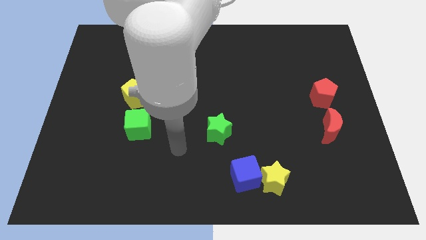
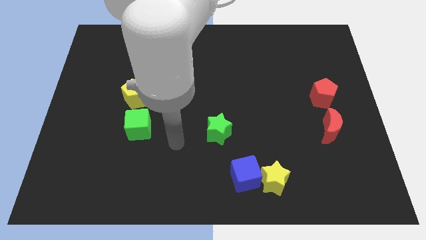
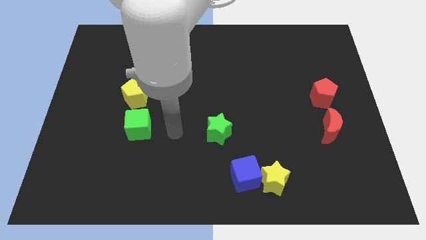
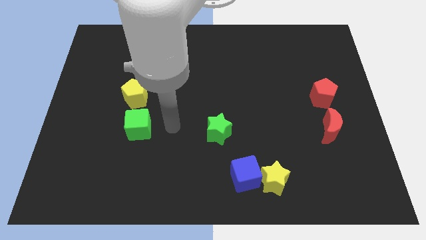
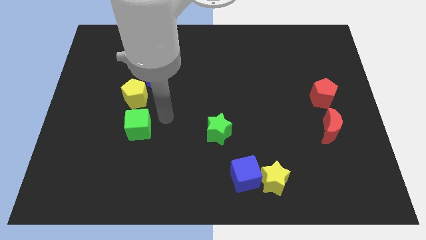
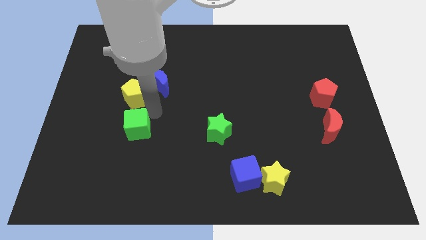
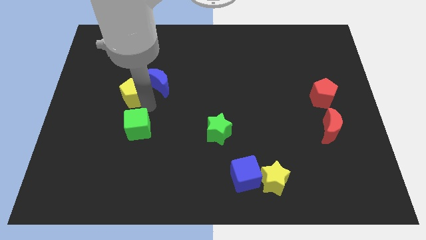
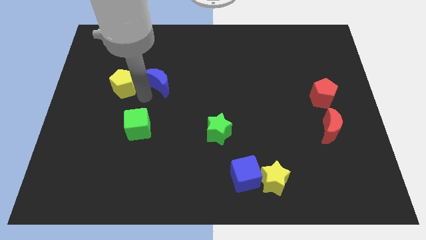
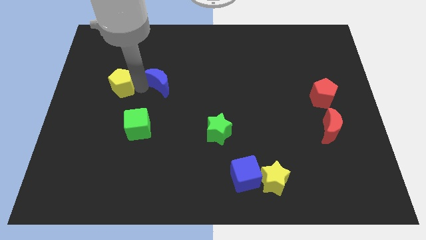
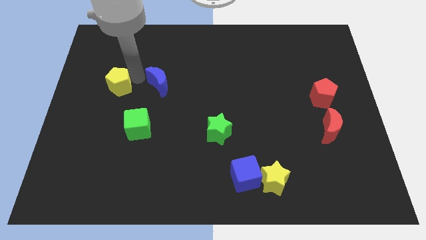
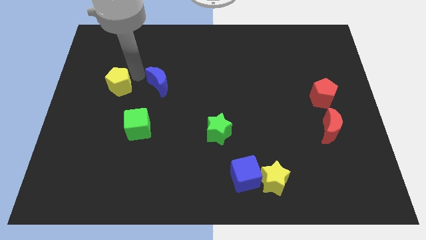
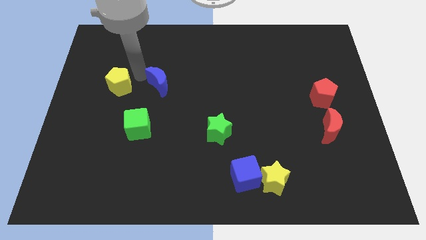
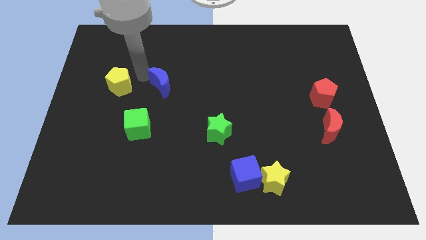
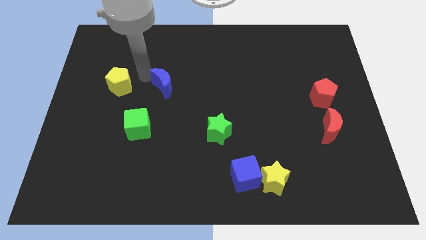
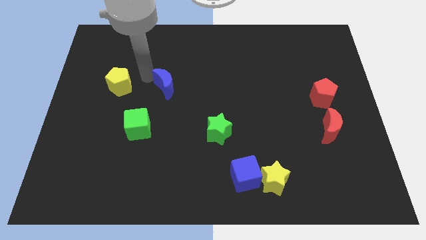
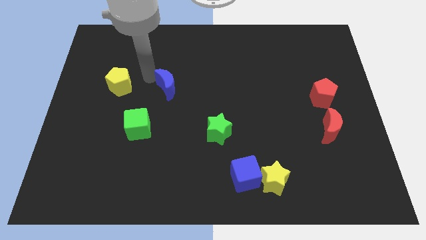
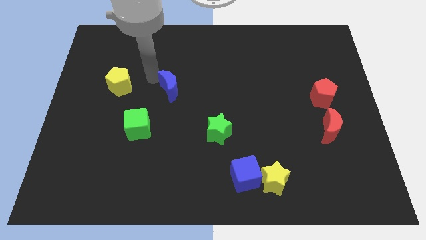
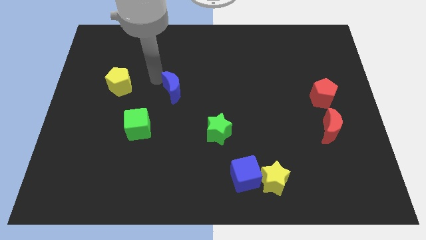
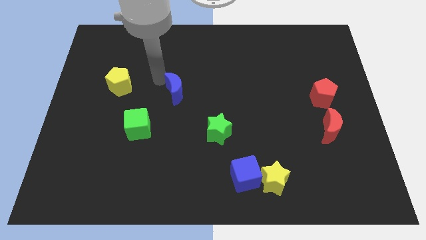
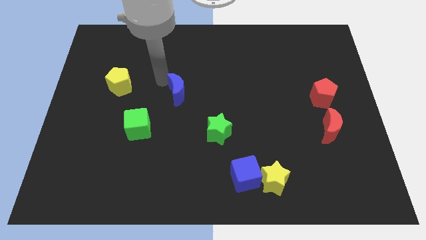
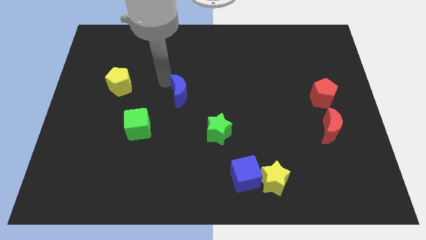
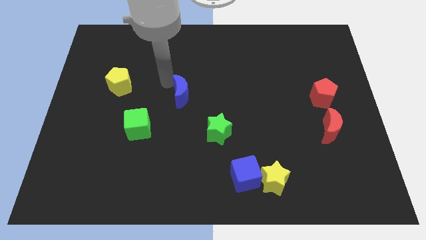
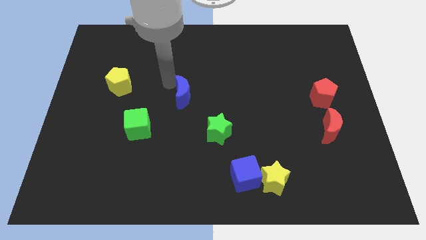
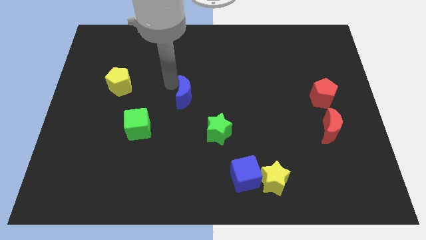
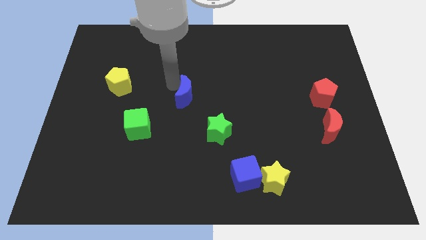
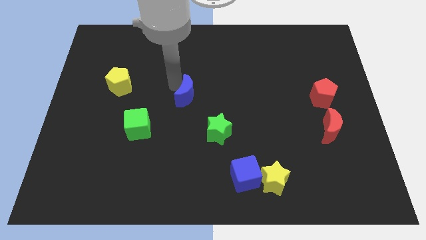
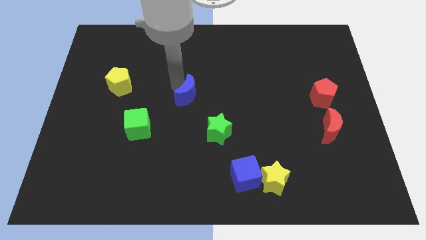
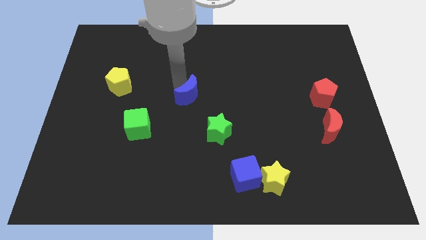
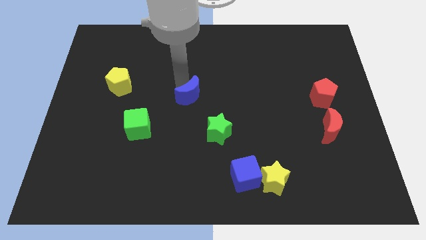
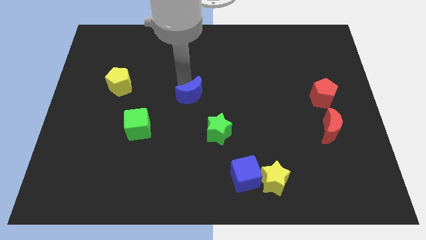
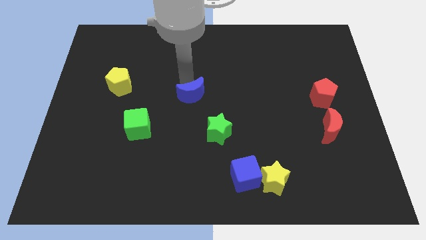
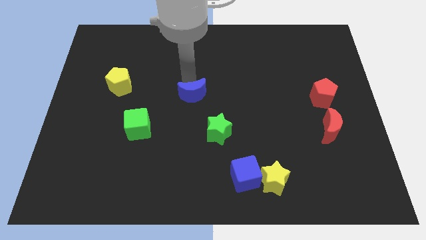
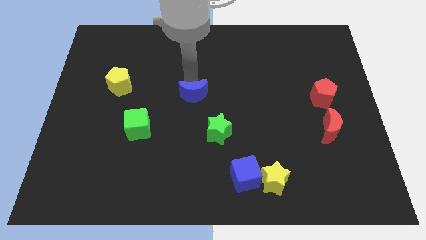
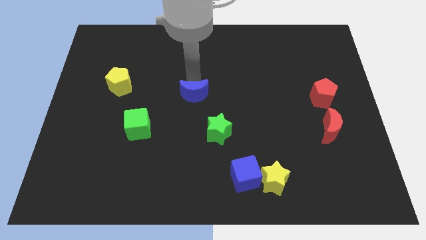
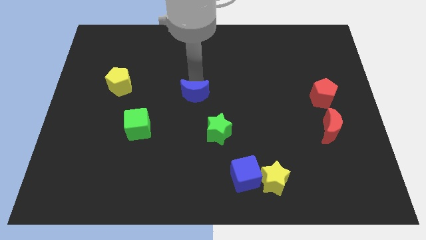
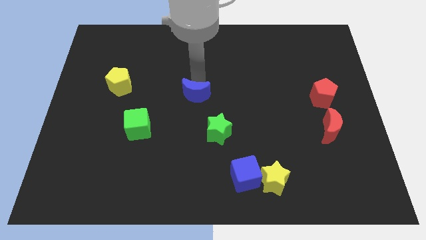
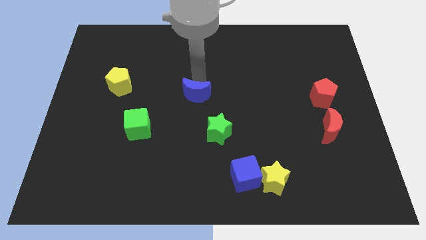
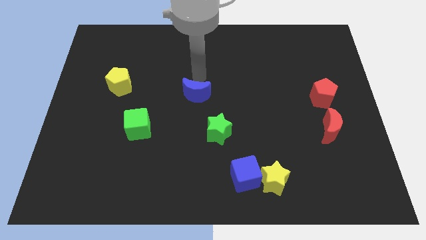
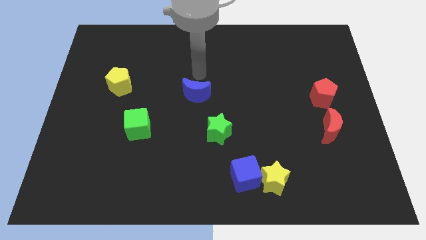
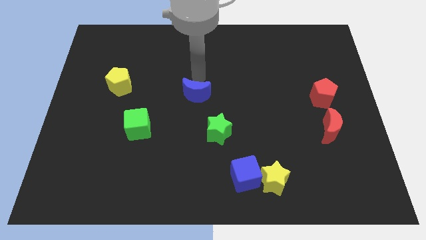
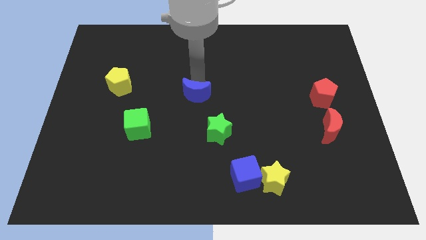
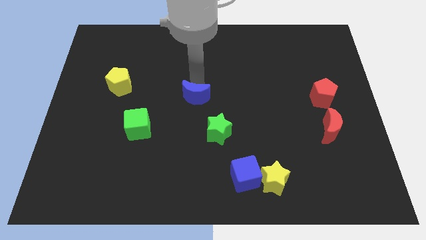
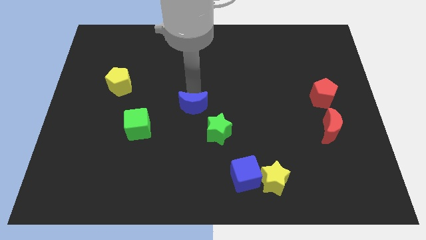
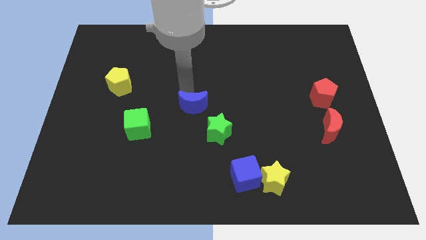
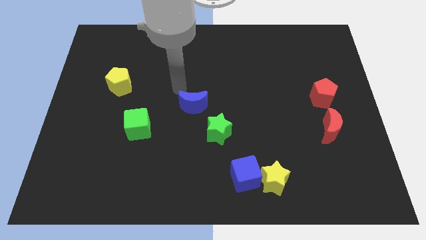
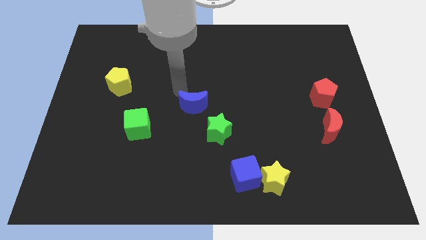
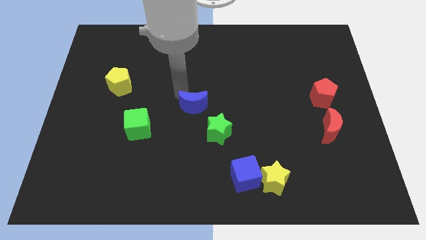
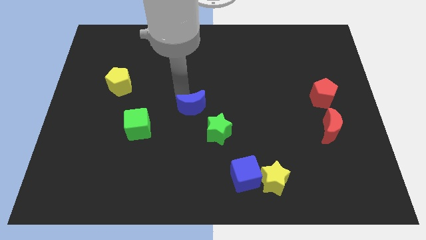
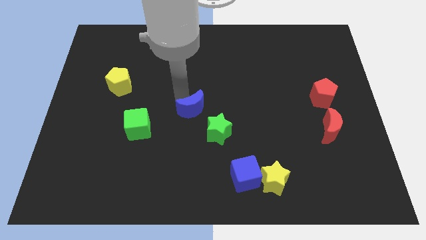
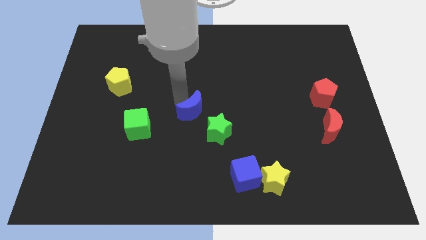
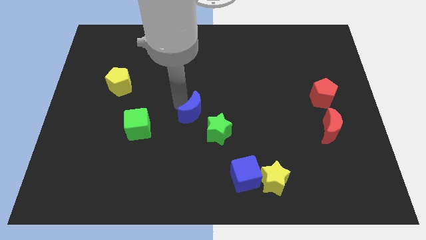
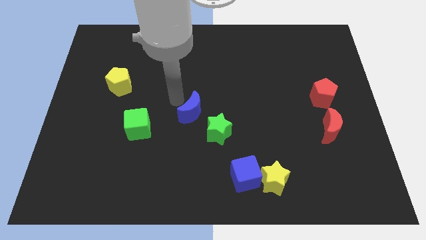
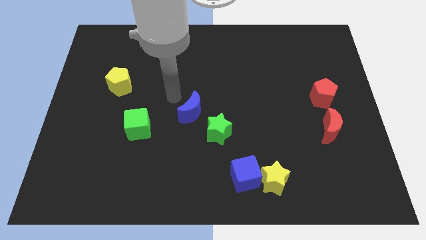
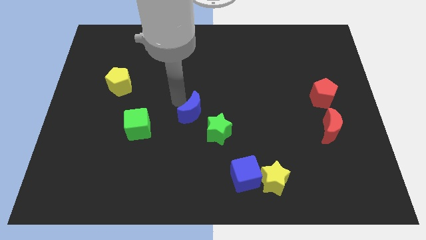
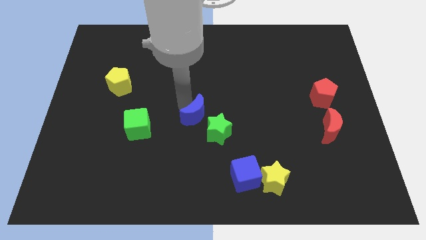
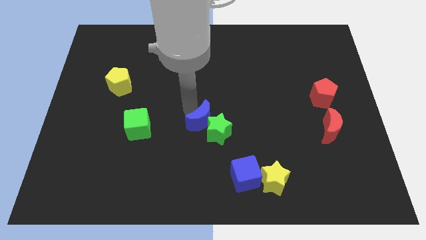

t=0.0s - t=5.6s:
put the blue moon close to the green star

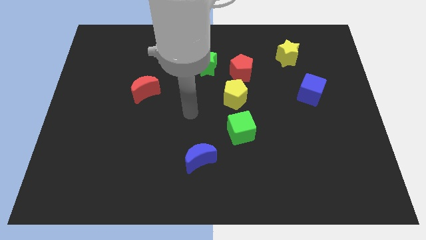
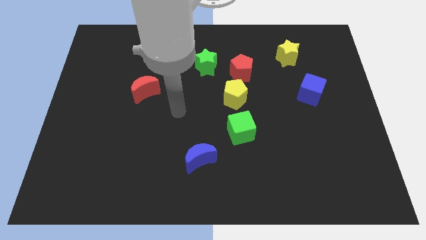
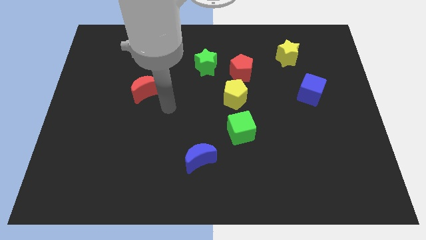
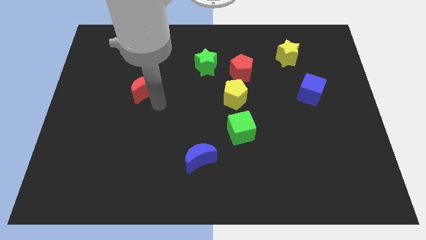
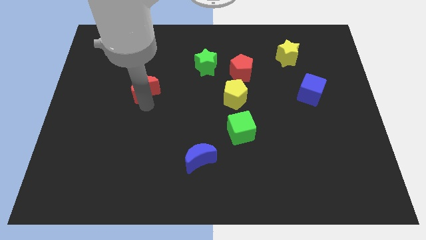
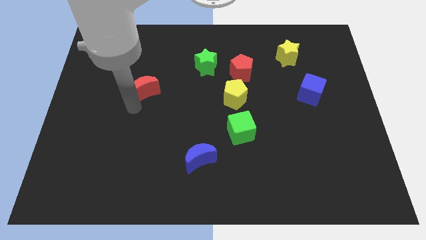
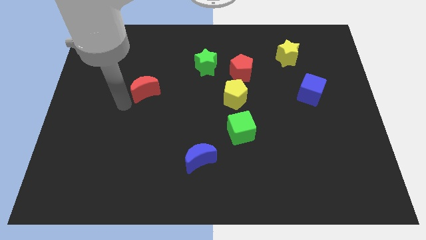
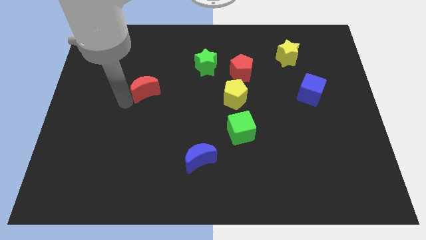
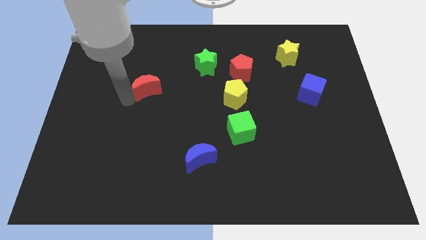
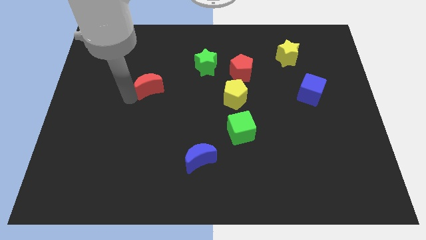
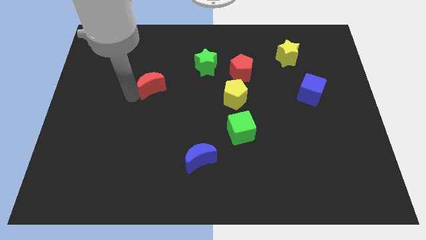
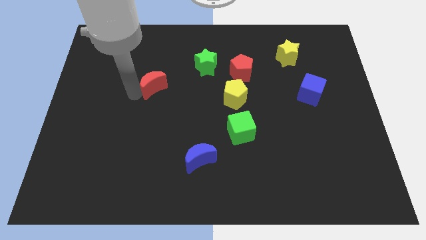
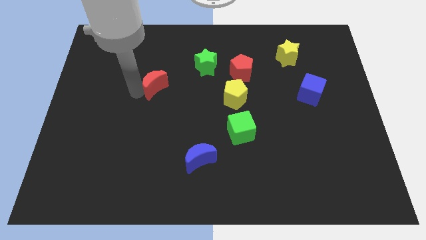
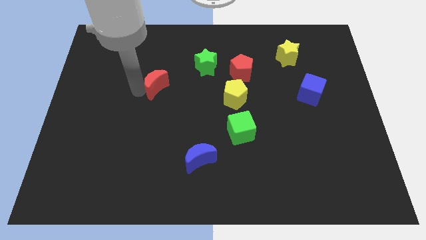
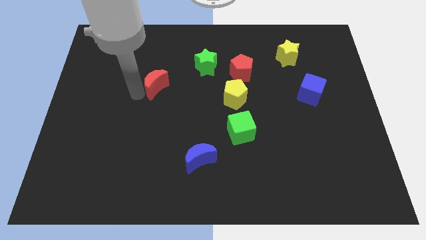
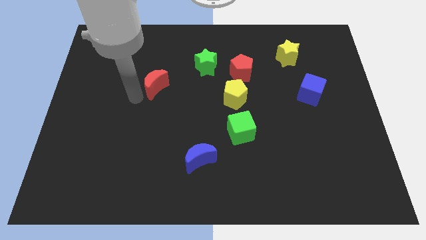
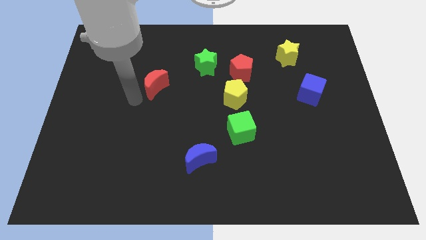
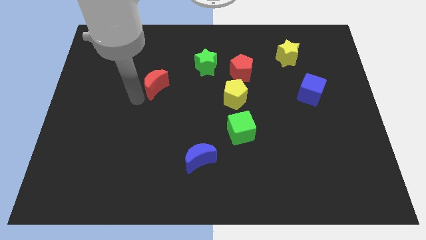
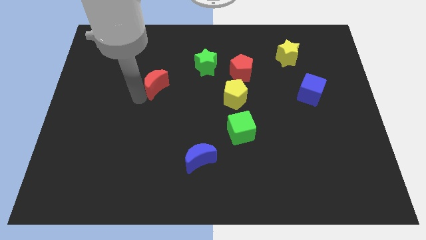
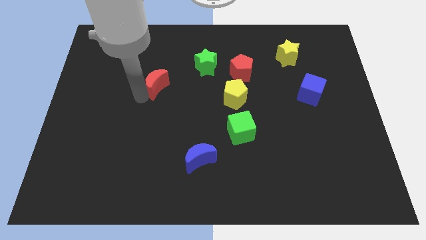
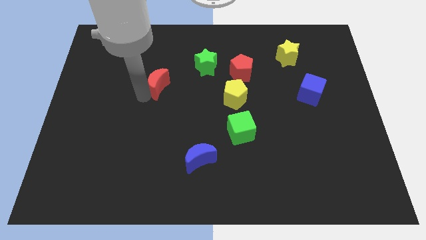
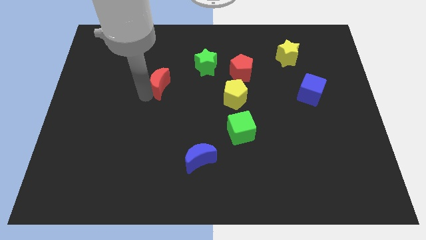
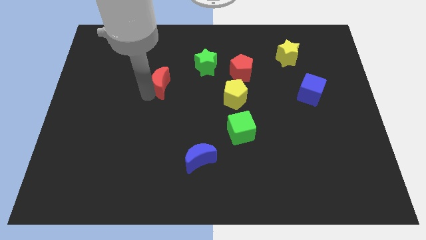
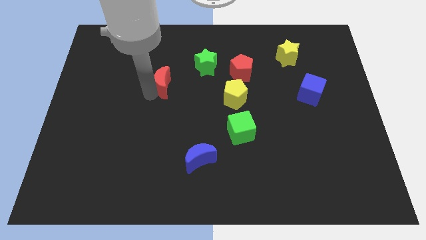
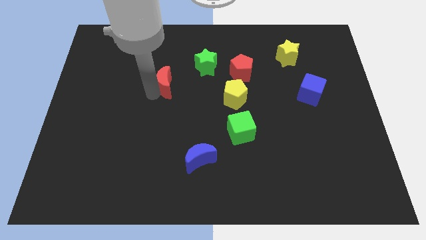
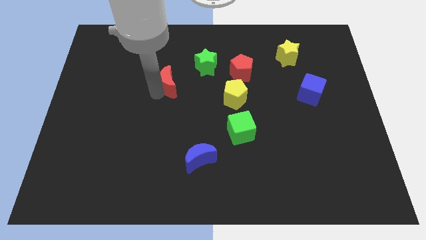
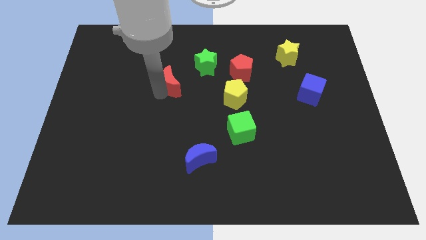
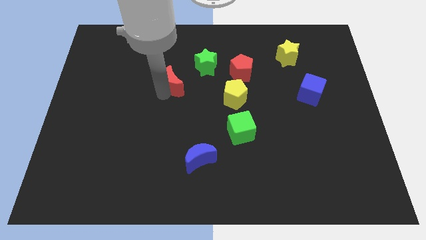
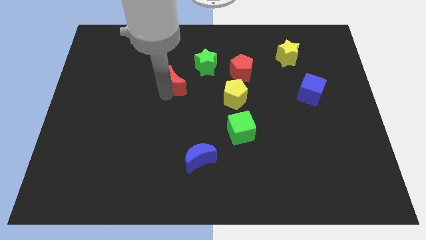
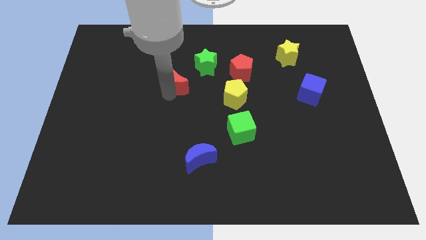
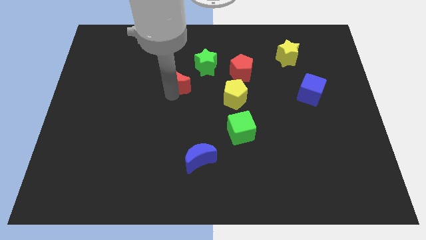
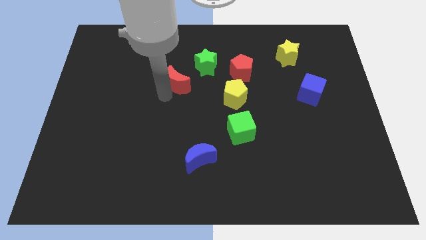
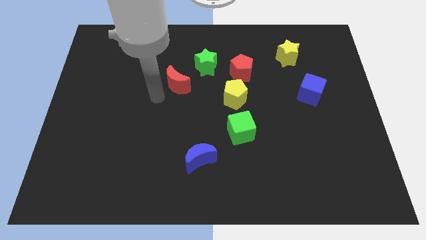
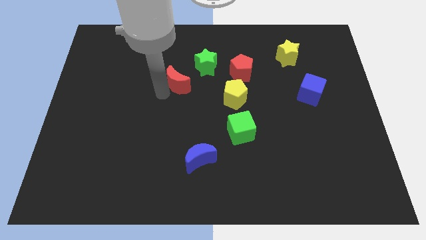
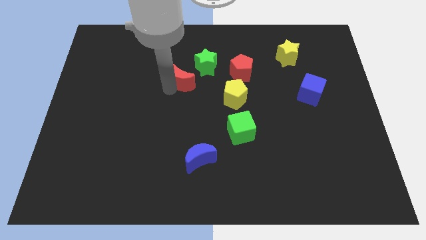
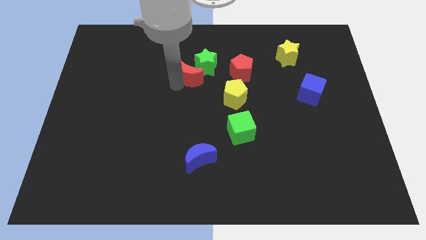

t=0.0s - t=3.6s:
move the red moon to the green star
